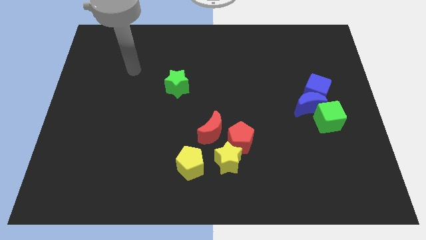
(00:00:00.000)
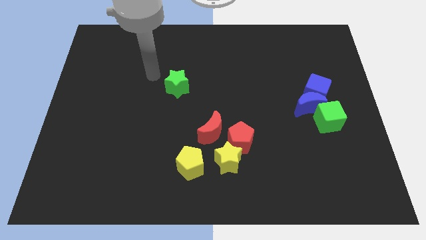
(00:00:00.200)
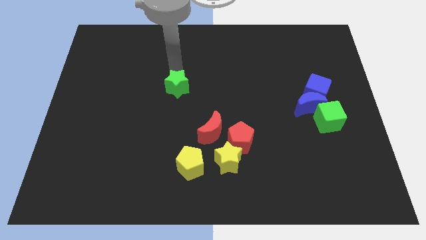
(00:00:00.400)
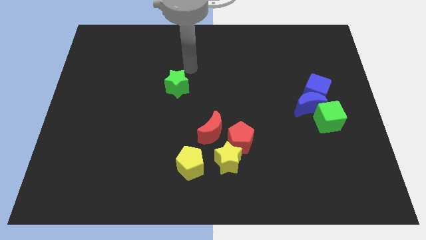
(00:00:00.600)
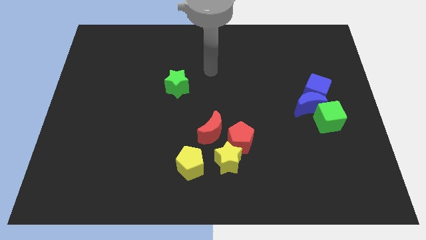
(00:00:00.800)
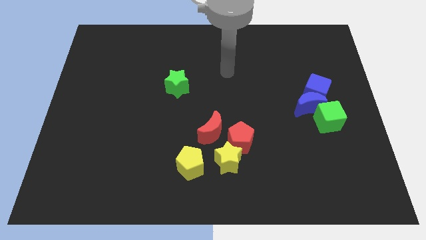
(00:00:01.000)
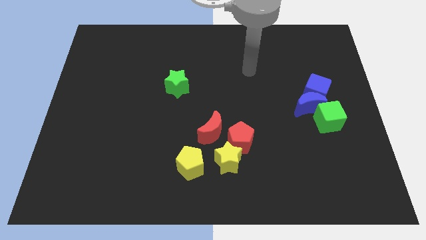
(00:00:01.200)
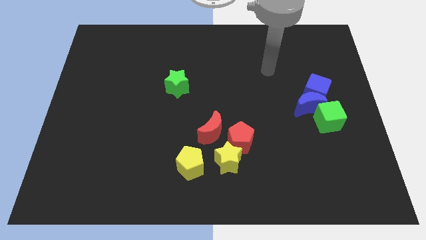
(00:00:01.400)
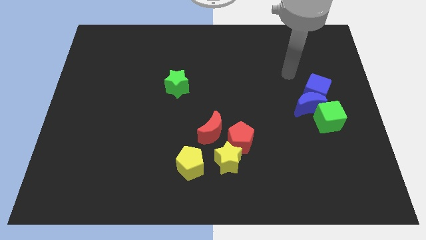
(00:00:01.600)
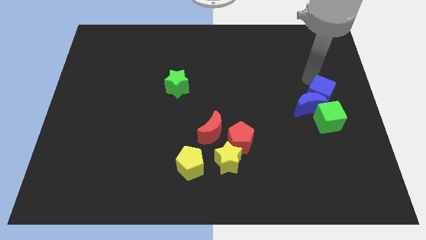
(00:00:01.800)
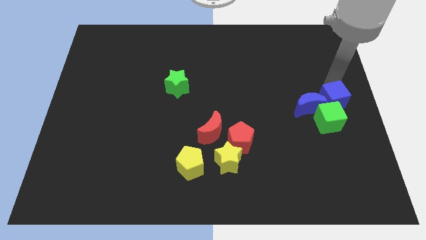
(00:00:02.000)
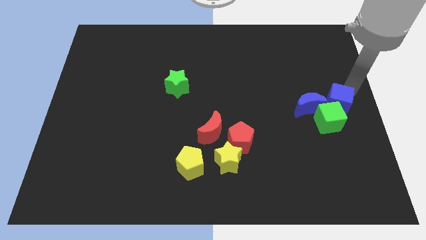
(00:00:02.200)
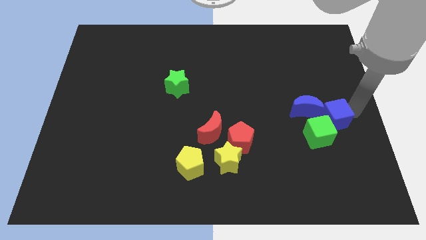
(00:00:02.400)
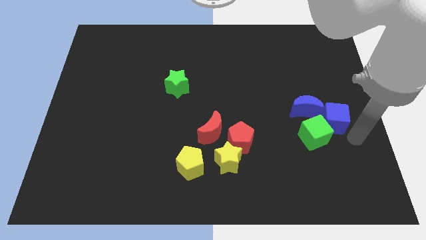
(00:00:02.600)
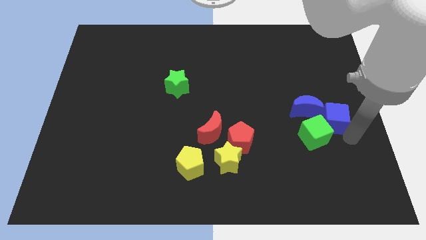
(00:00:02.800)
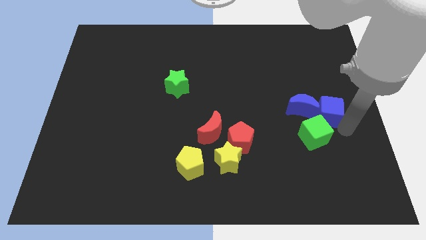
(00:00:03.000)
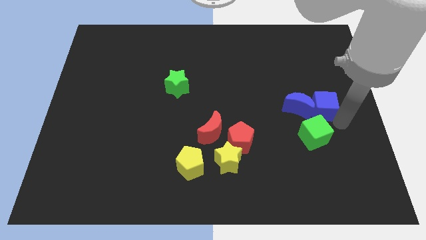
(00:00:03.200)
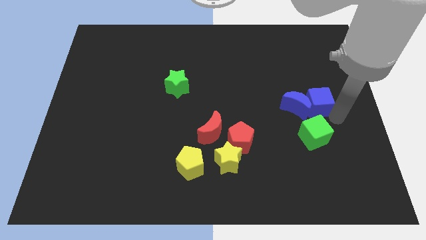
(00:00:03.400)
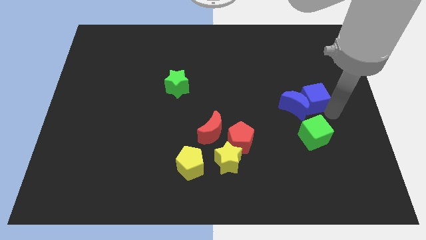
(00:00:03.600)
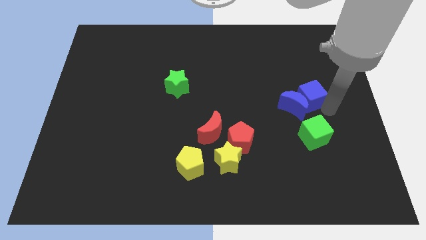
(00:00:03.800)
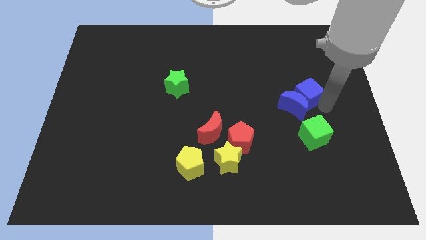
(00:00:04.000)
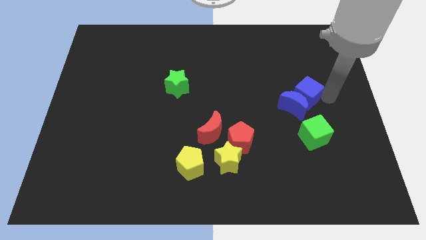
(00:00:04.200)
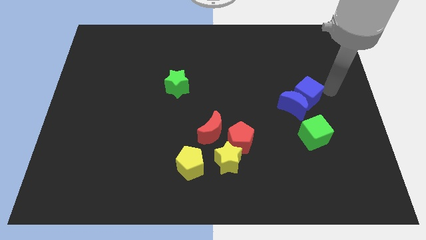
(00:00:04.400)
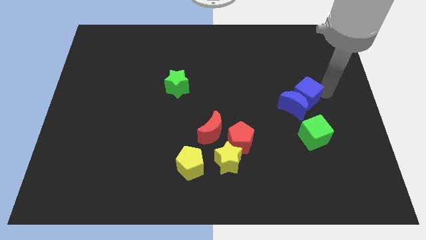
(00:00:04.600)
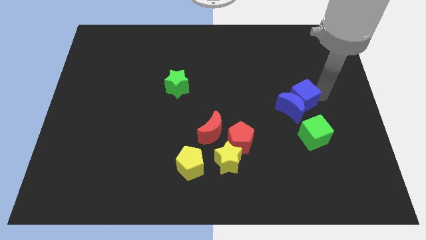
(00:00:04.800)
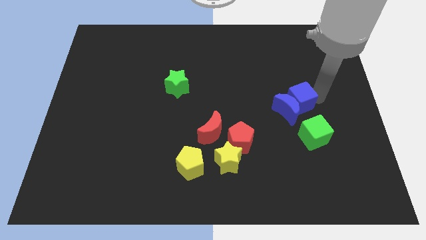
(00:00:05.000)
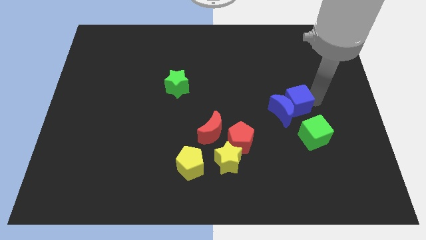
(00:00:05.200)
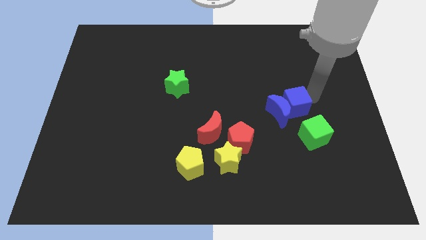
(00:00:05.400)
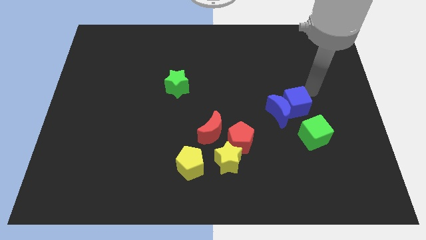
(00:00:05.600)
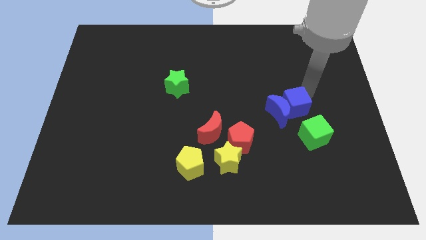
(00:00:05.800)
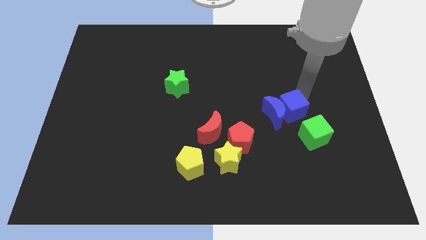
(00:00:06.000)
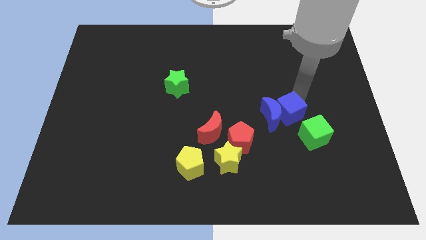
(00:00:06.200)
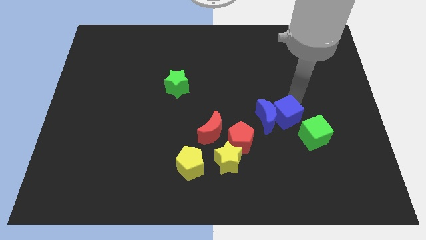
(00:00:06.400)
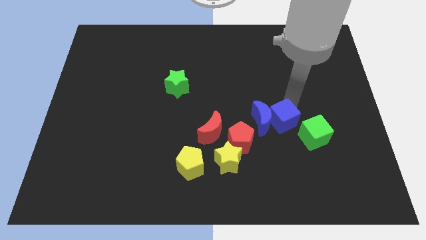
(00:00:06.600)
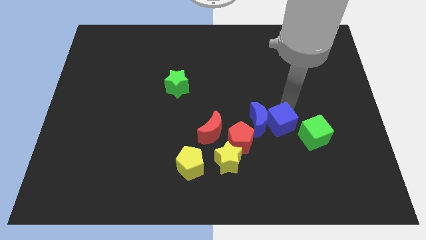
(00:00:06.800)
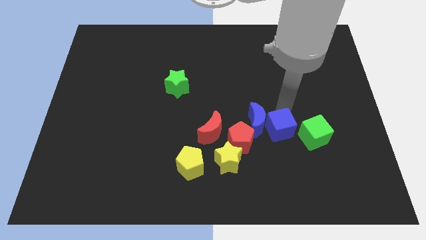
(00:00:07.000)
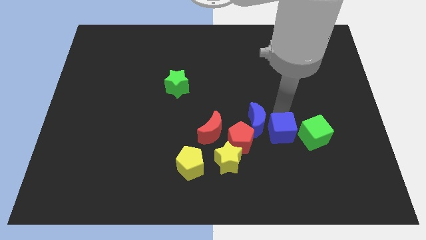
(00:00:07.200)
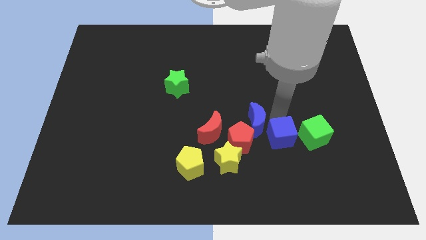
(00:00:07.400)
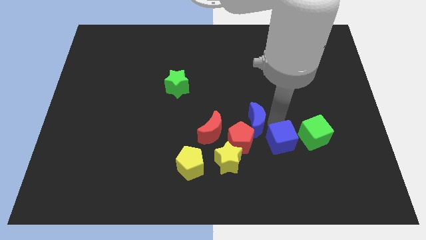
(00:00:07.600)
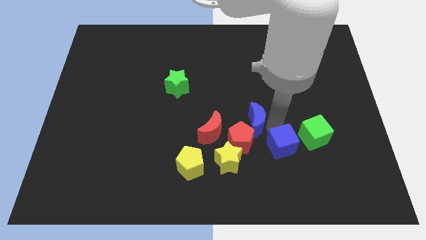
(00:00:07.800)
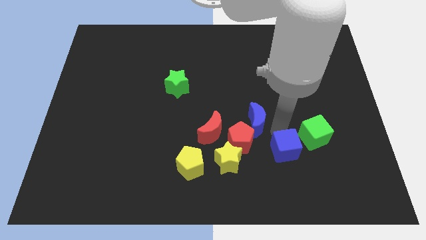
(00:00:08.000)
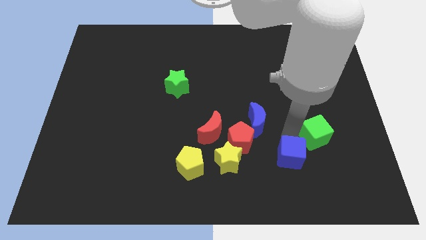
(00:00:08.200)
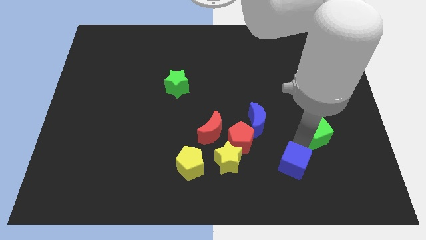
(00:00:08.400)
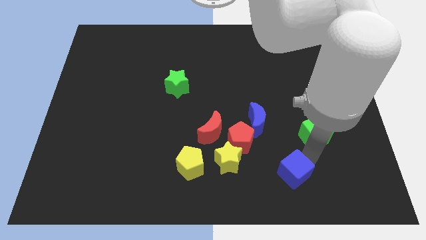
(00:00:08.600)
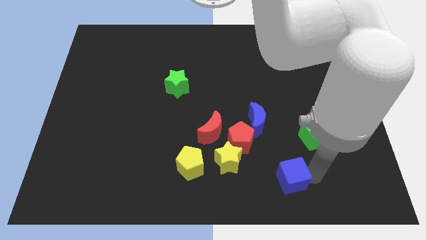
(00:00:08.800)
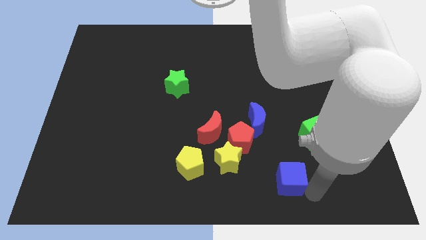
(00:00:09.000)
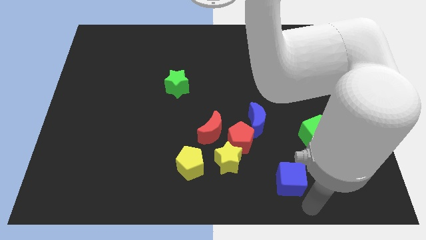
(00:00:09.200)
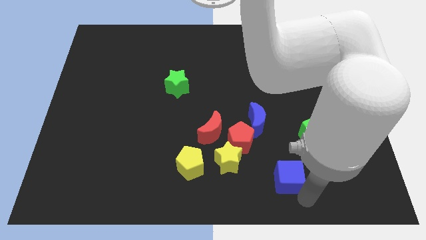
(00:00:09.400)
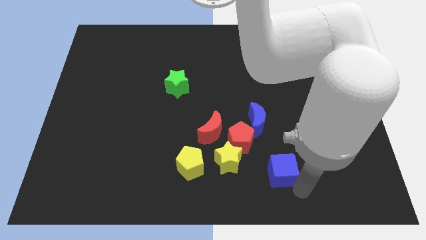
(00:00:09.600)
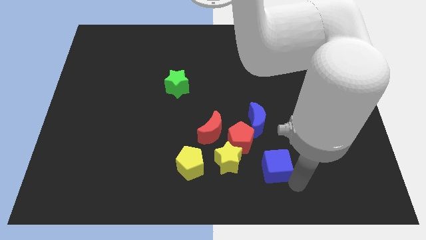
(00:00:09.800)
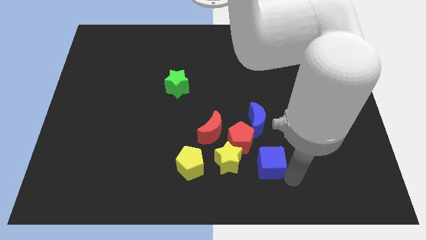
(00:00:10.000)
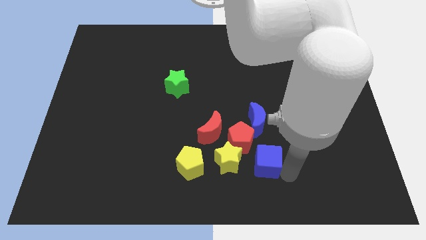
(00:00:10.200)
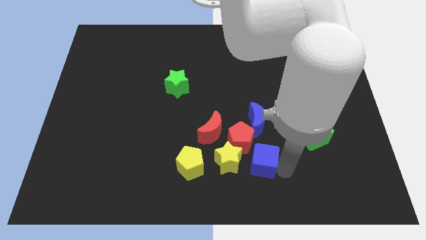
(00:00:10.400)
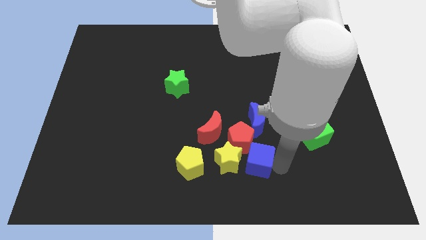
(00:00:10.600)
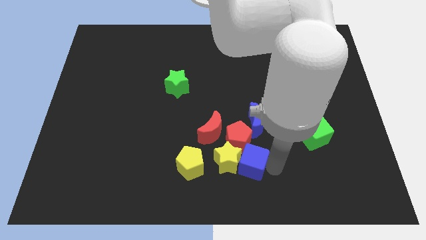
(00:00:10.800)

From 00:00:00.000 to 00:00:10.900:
push the blue cube to the bottom side

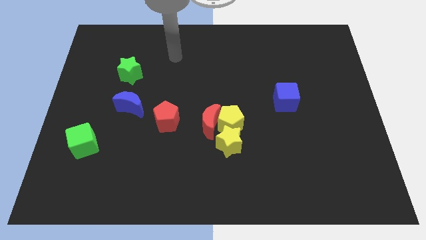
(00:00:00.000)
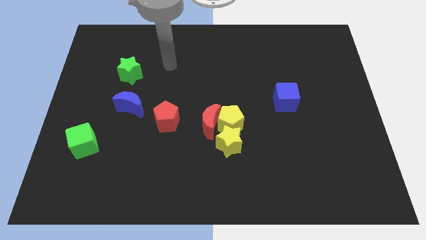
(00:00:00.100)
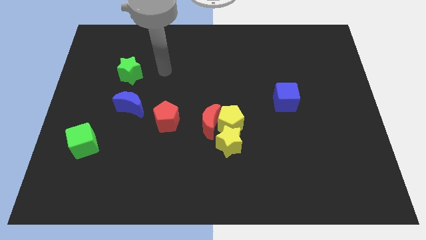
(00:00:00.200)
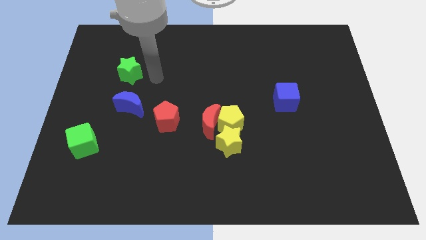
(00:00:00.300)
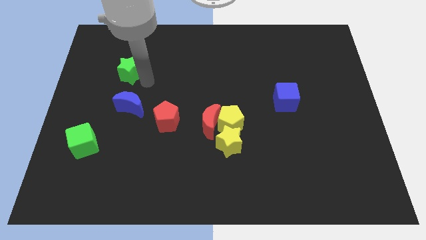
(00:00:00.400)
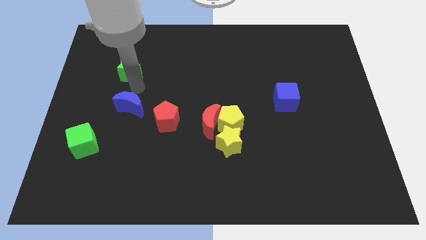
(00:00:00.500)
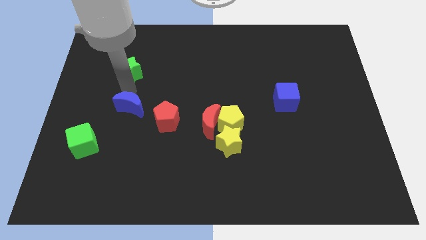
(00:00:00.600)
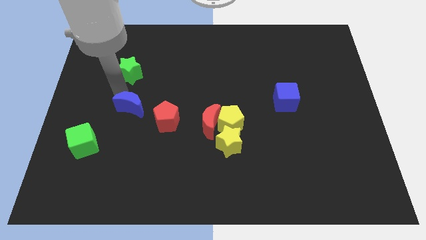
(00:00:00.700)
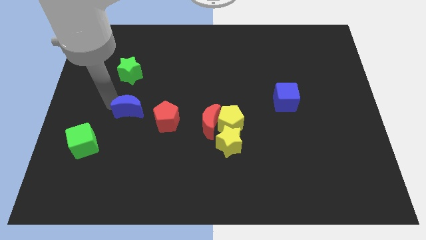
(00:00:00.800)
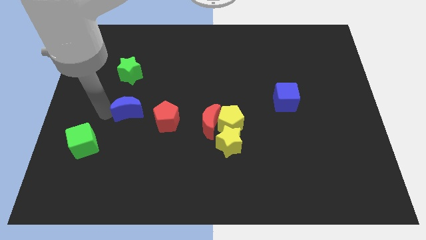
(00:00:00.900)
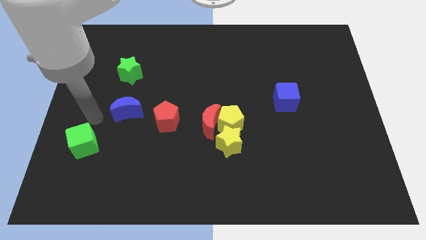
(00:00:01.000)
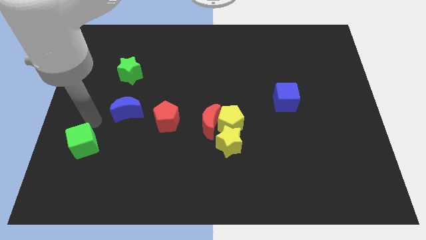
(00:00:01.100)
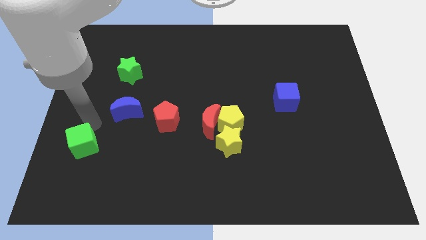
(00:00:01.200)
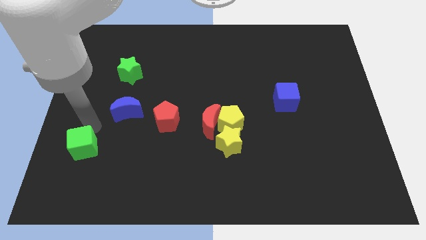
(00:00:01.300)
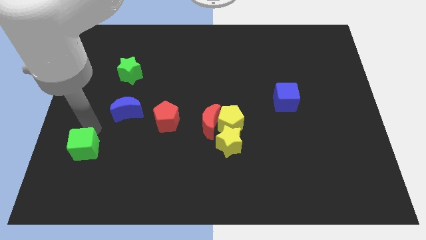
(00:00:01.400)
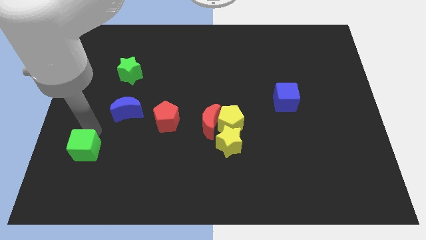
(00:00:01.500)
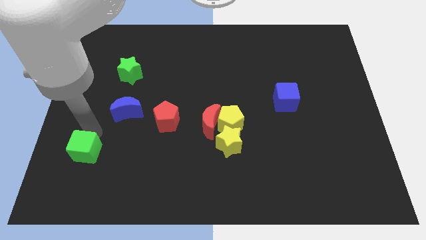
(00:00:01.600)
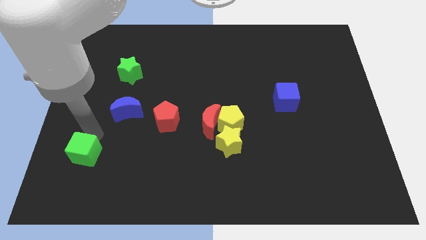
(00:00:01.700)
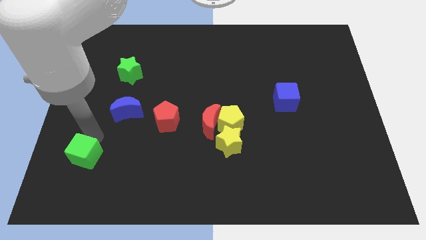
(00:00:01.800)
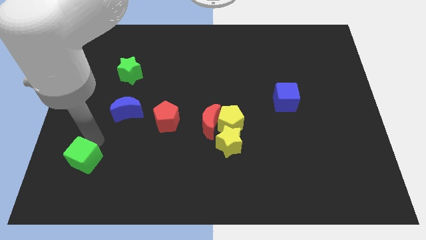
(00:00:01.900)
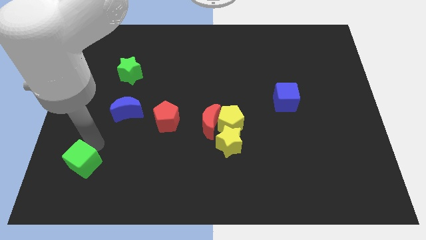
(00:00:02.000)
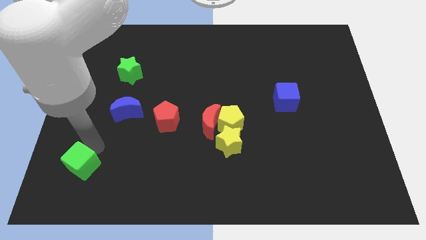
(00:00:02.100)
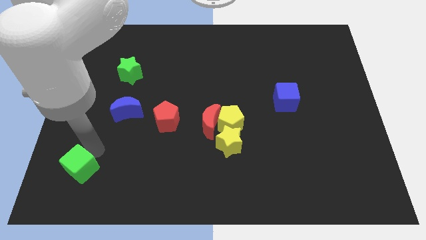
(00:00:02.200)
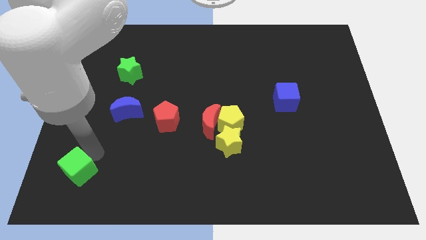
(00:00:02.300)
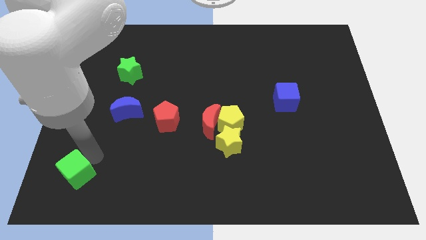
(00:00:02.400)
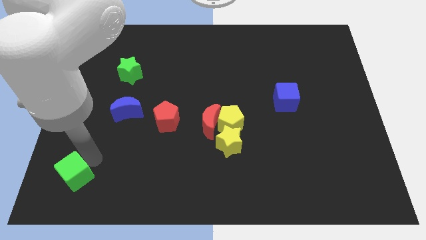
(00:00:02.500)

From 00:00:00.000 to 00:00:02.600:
move the green cube to the bottom left corner
